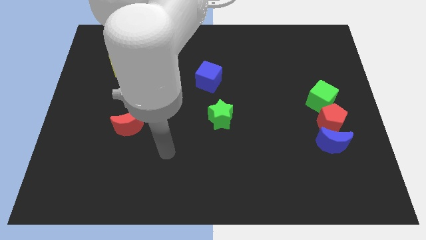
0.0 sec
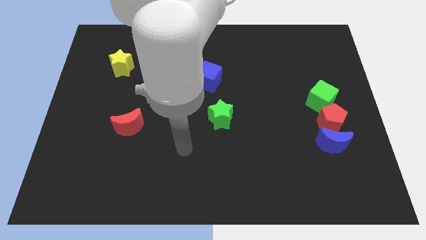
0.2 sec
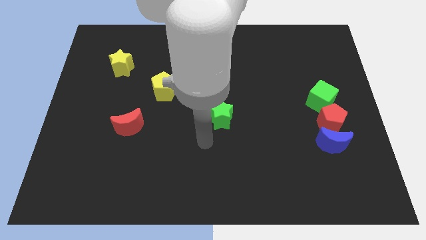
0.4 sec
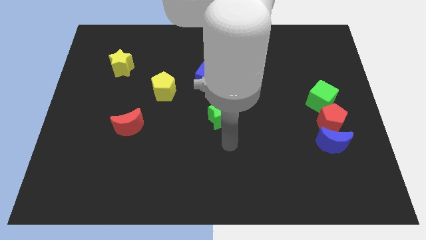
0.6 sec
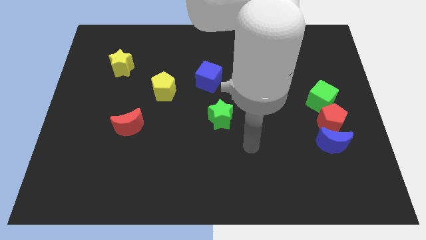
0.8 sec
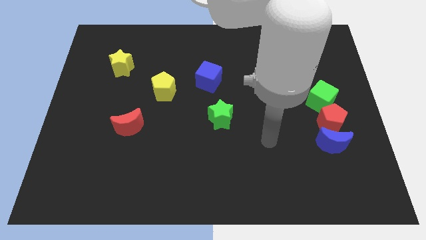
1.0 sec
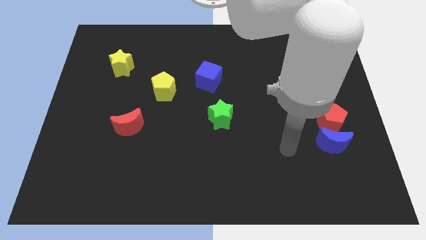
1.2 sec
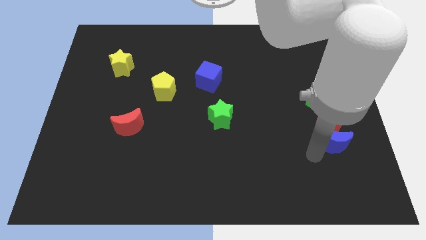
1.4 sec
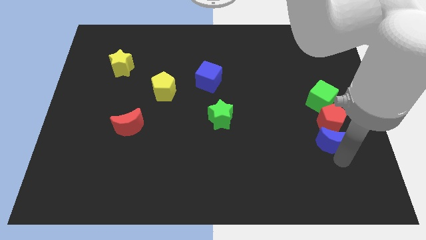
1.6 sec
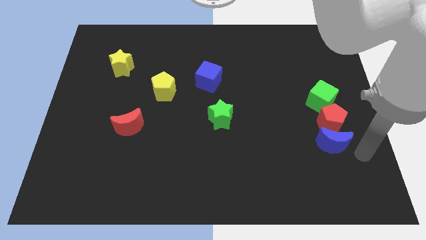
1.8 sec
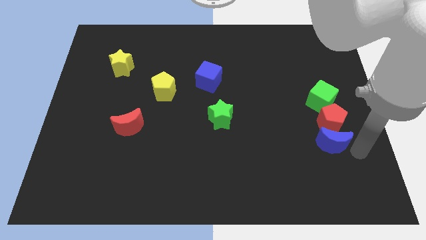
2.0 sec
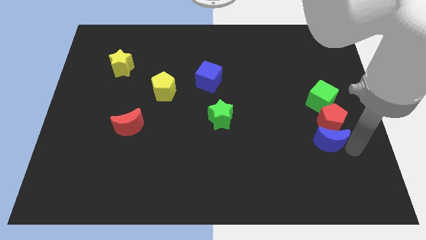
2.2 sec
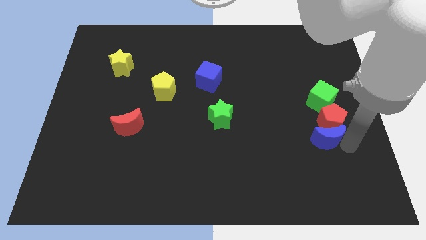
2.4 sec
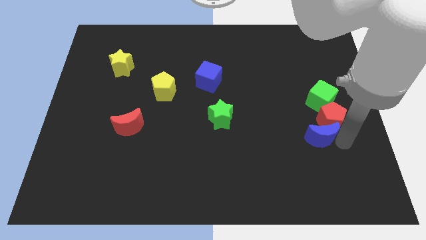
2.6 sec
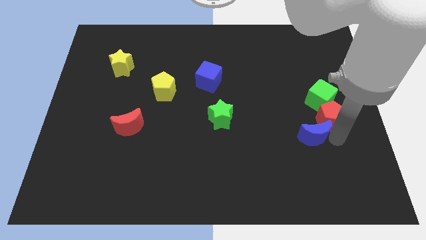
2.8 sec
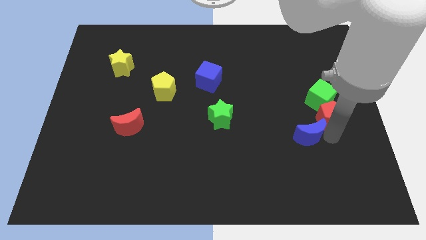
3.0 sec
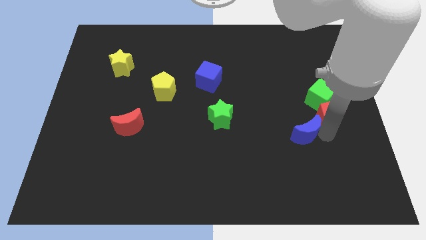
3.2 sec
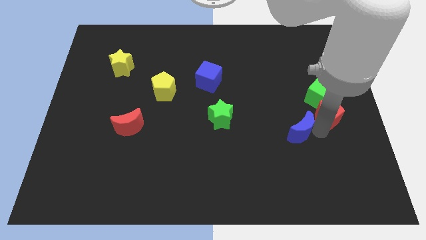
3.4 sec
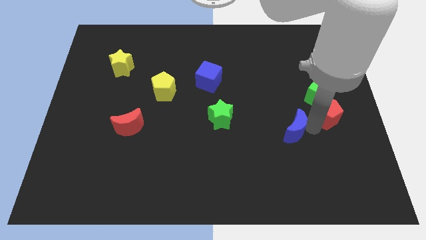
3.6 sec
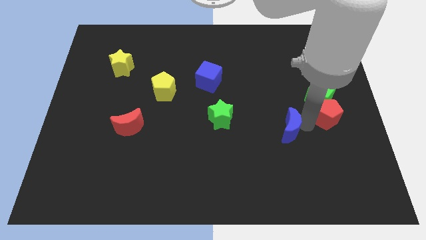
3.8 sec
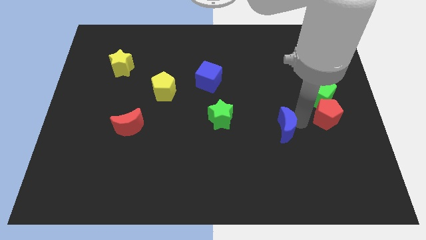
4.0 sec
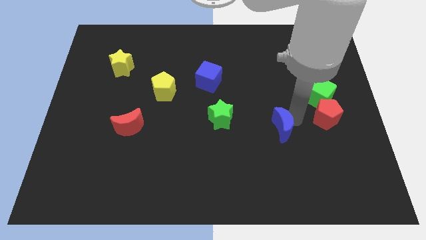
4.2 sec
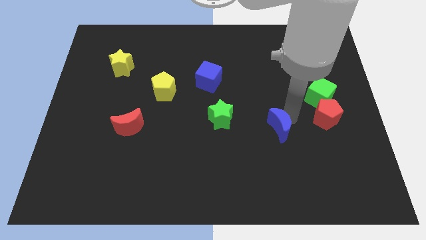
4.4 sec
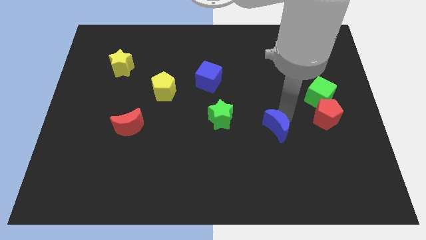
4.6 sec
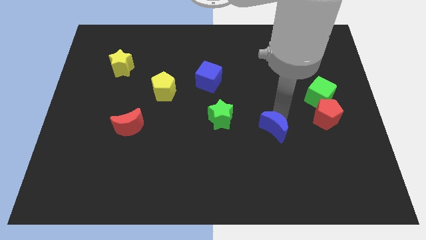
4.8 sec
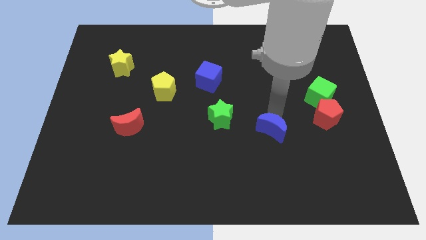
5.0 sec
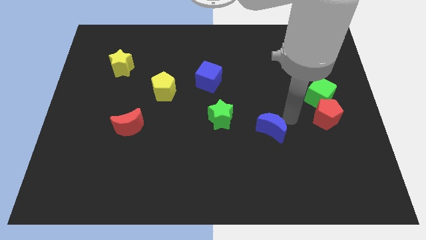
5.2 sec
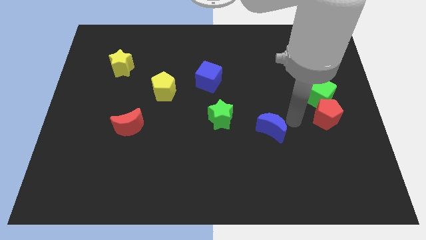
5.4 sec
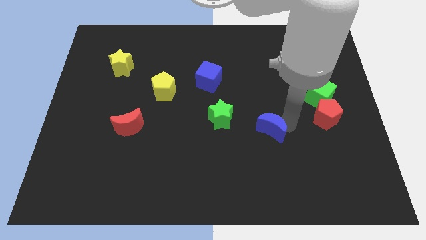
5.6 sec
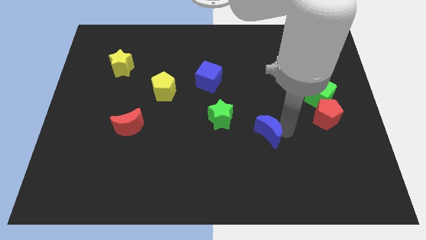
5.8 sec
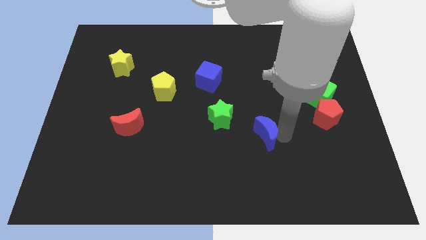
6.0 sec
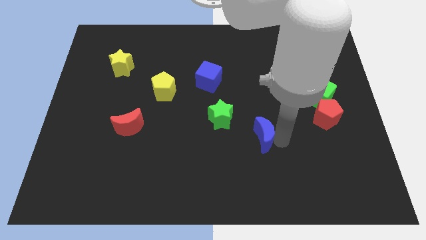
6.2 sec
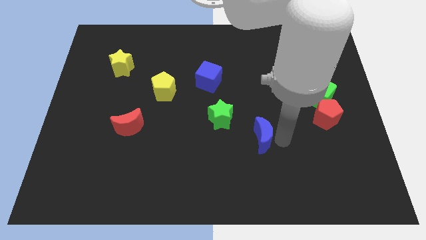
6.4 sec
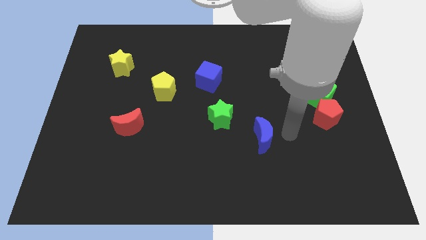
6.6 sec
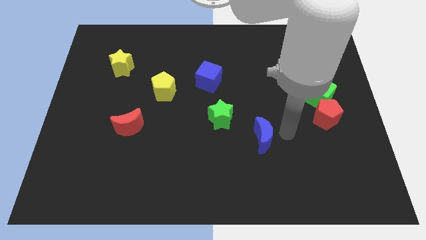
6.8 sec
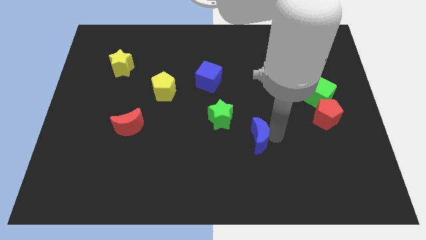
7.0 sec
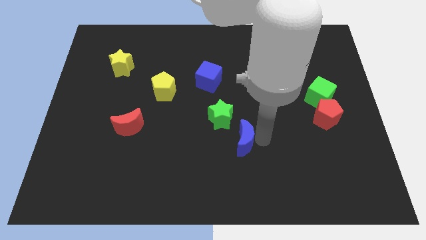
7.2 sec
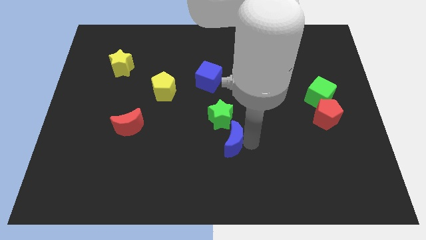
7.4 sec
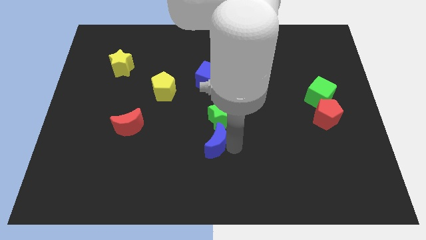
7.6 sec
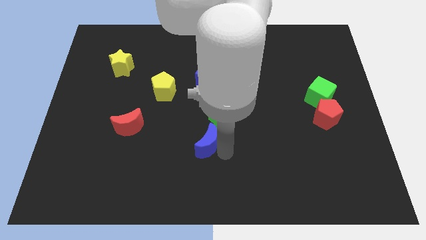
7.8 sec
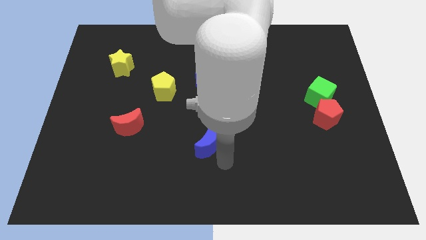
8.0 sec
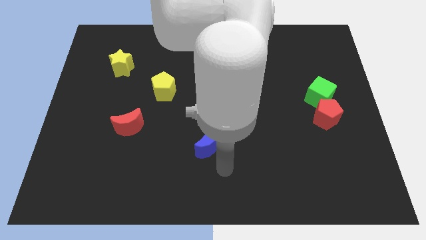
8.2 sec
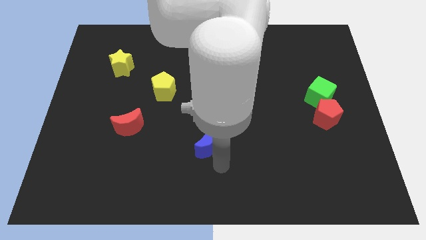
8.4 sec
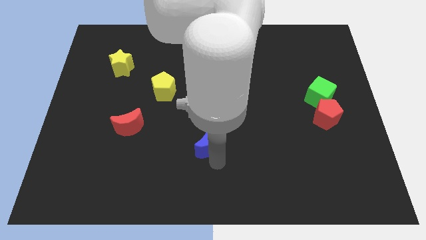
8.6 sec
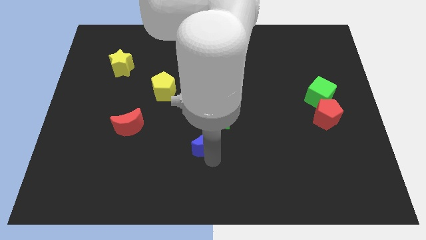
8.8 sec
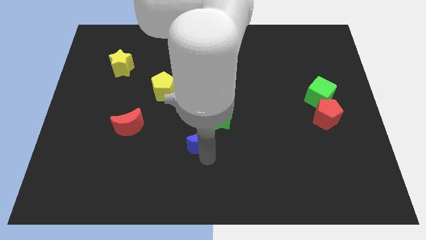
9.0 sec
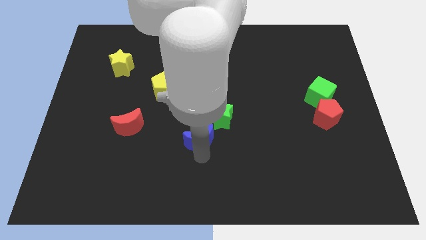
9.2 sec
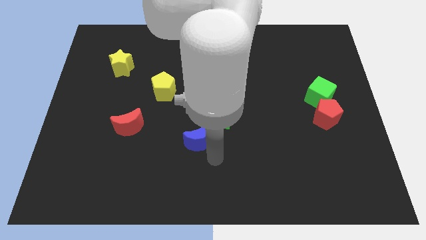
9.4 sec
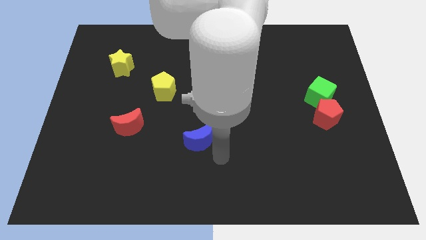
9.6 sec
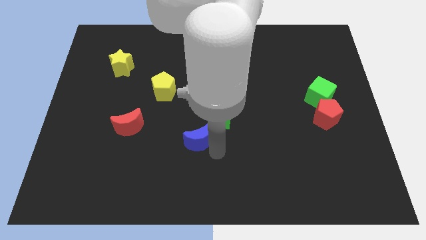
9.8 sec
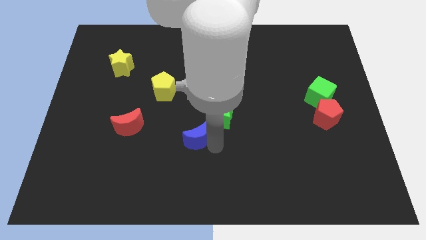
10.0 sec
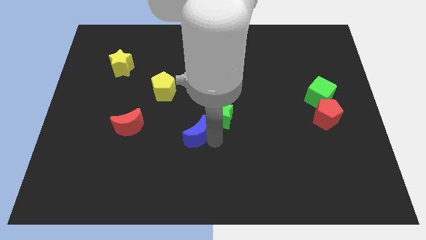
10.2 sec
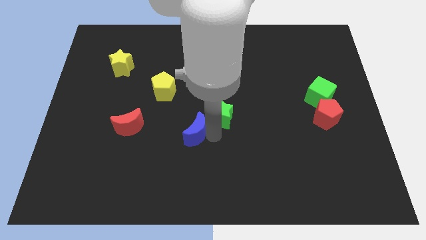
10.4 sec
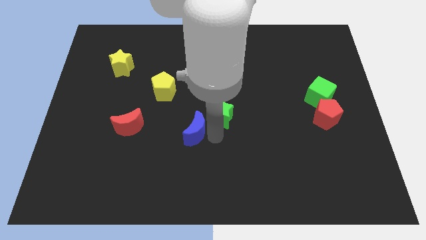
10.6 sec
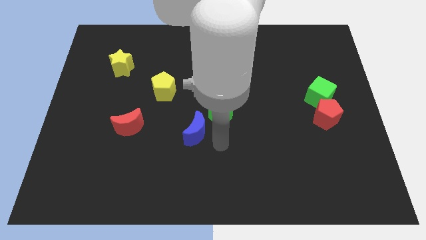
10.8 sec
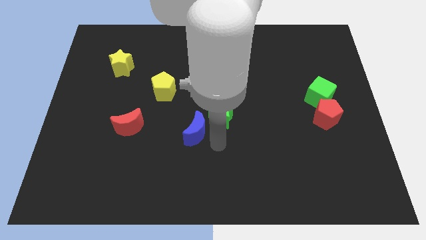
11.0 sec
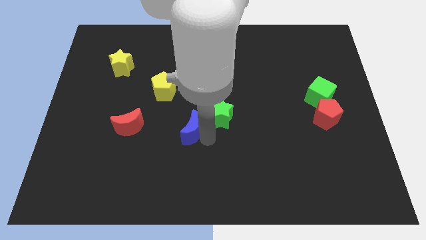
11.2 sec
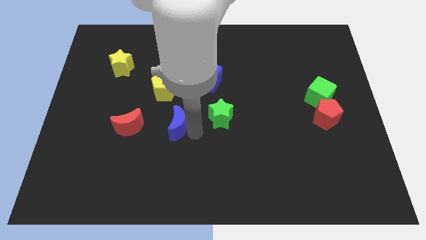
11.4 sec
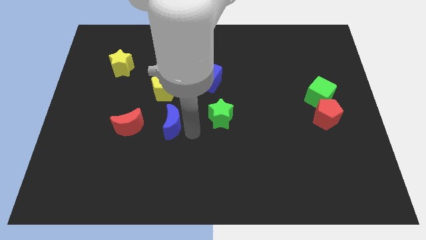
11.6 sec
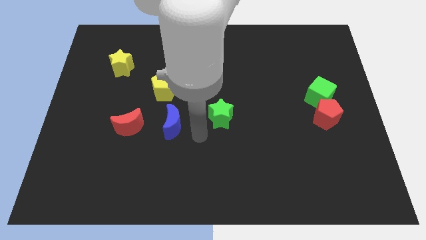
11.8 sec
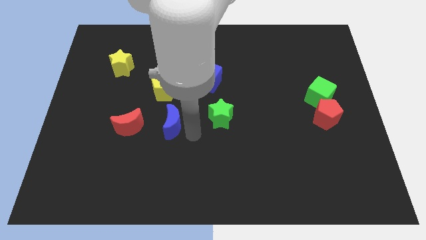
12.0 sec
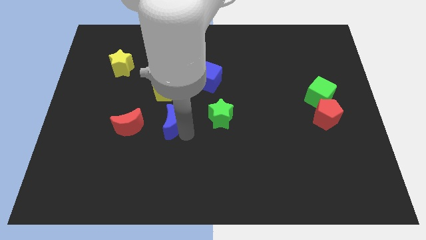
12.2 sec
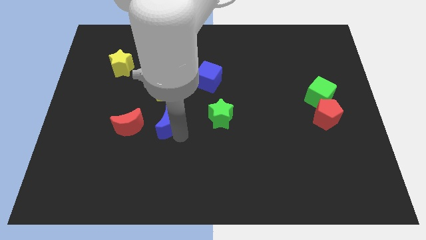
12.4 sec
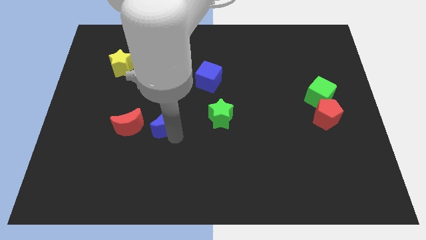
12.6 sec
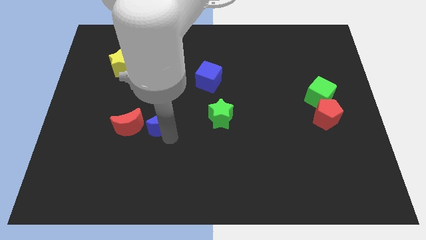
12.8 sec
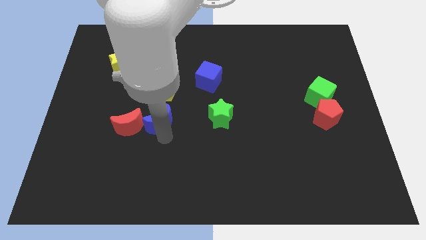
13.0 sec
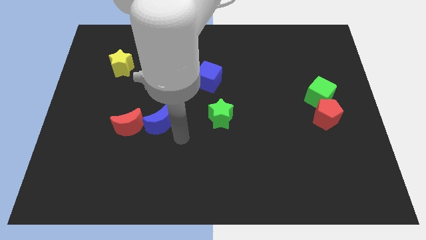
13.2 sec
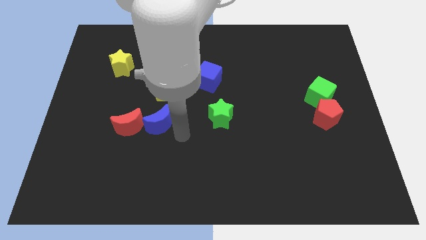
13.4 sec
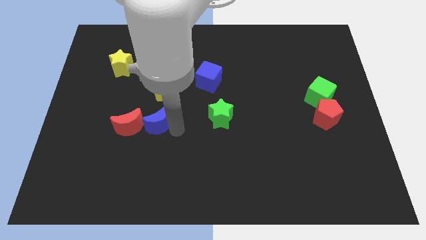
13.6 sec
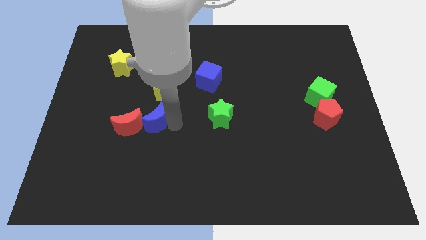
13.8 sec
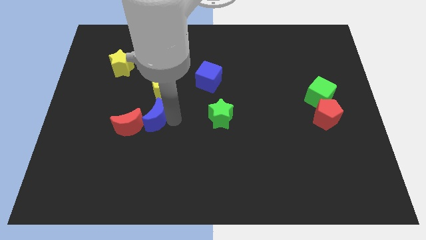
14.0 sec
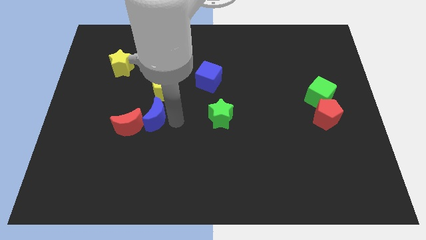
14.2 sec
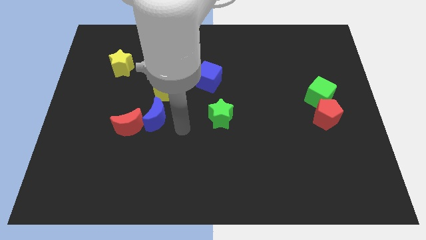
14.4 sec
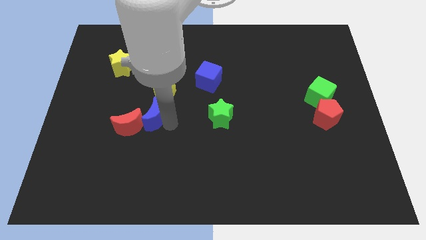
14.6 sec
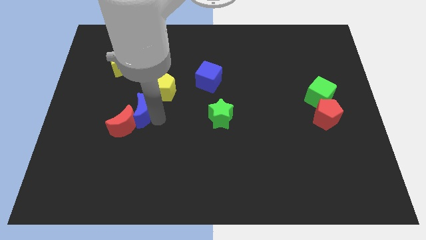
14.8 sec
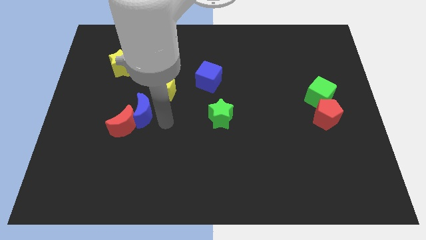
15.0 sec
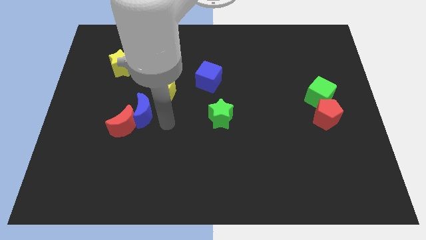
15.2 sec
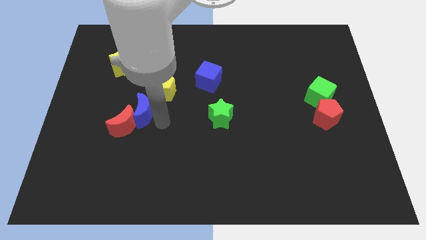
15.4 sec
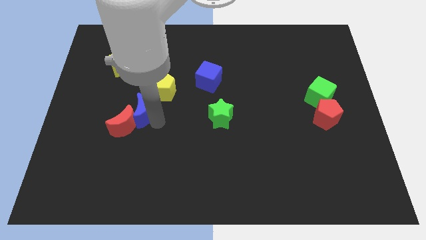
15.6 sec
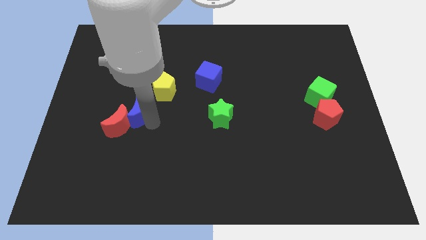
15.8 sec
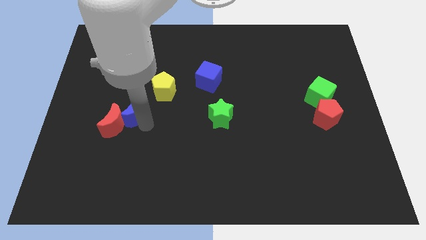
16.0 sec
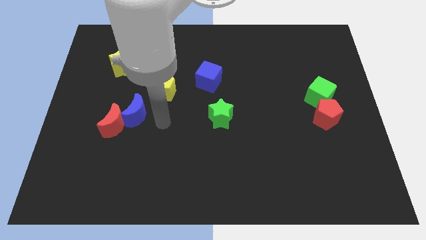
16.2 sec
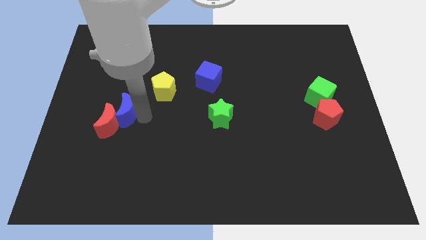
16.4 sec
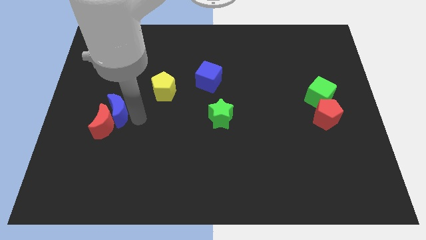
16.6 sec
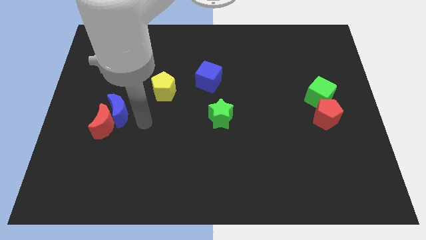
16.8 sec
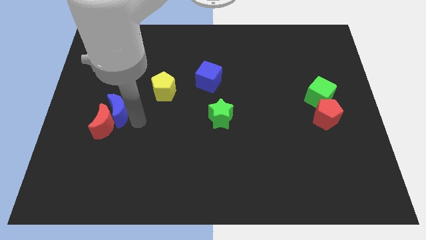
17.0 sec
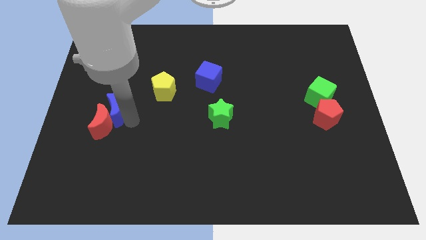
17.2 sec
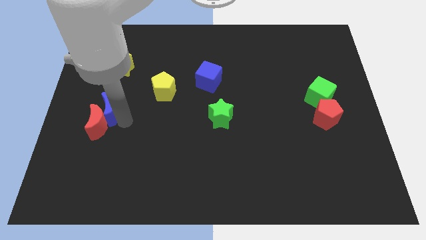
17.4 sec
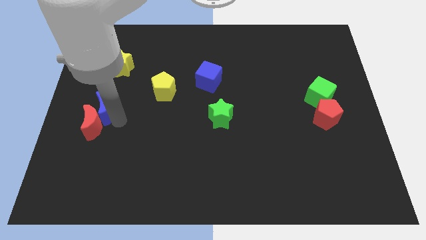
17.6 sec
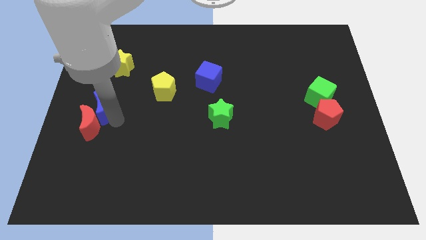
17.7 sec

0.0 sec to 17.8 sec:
put the blue moon to the left side of the board
